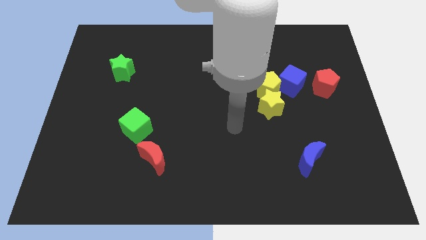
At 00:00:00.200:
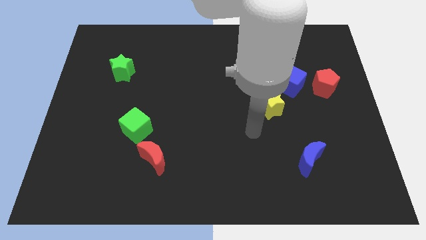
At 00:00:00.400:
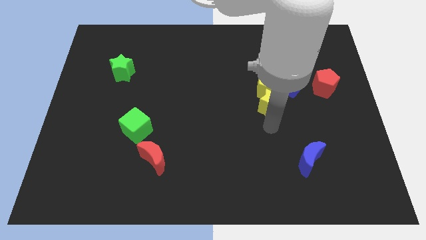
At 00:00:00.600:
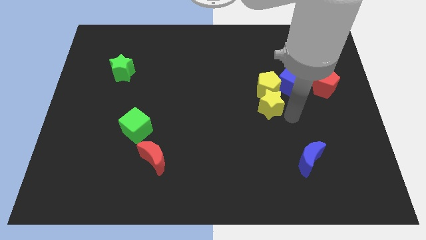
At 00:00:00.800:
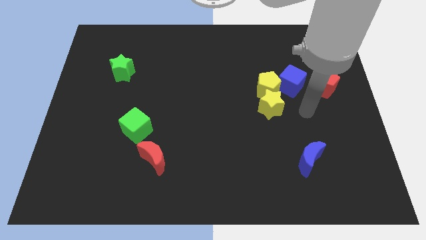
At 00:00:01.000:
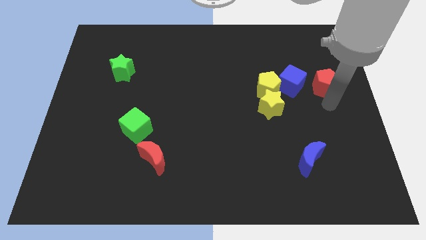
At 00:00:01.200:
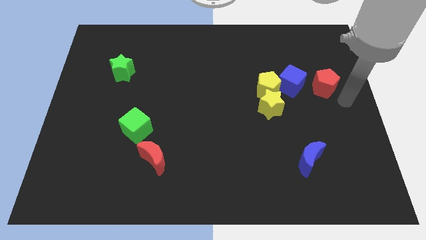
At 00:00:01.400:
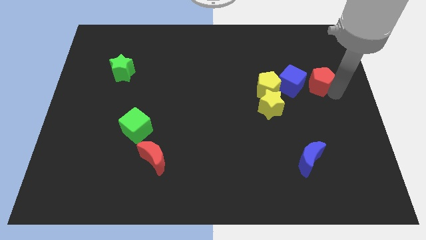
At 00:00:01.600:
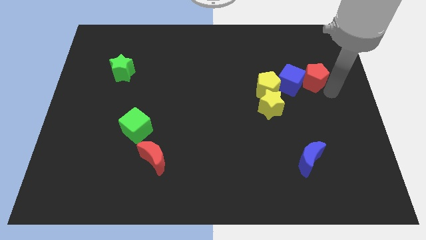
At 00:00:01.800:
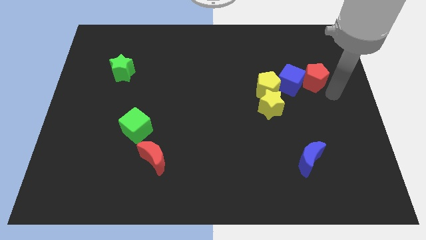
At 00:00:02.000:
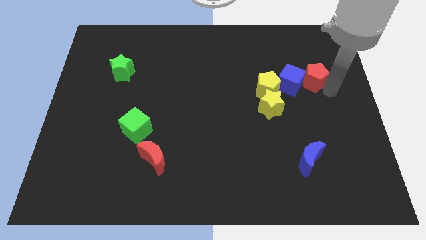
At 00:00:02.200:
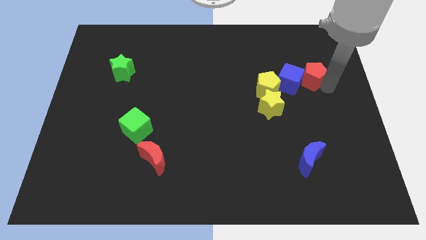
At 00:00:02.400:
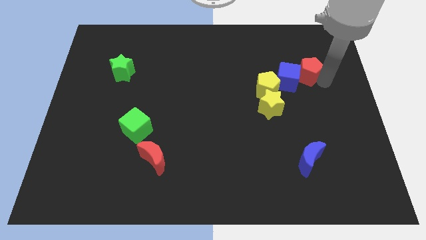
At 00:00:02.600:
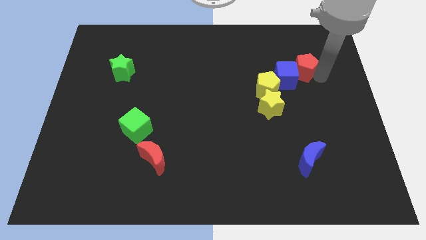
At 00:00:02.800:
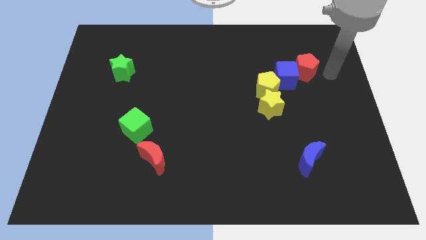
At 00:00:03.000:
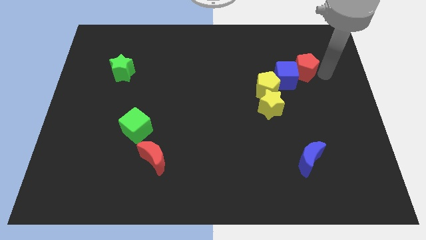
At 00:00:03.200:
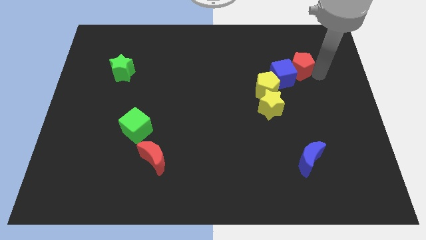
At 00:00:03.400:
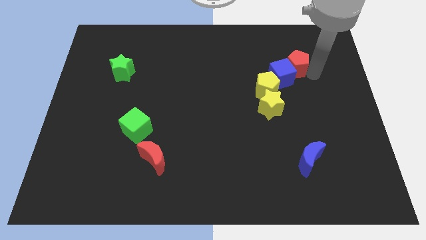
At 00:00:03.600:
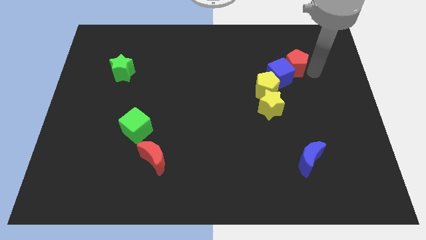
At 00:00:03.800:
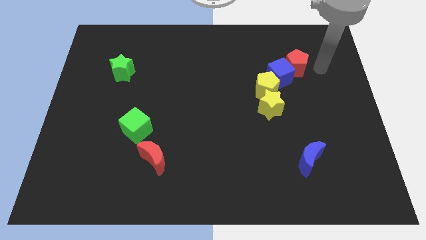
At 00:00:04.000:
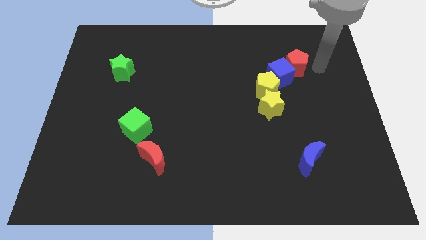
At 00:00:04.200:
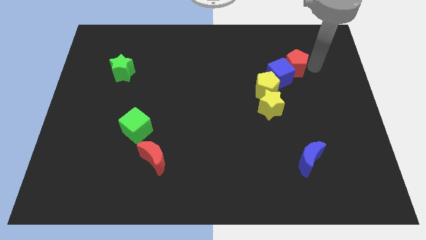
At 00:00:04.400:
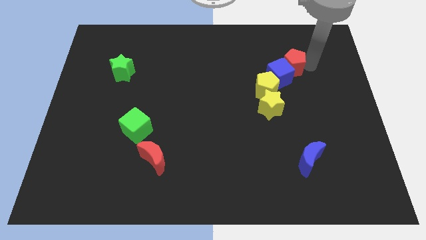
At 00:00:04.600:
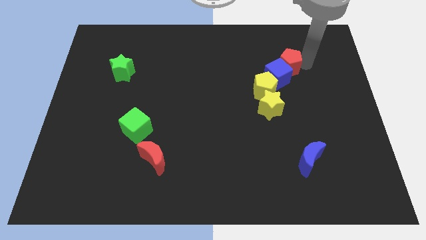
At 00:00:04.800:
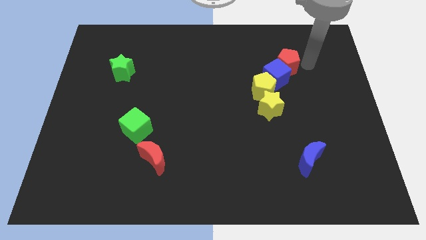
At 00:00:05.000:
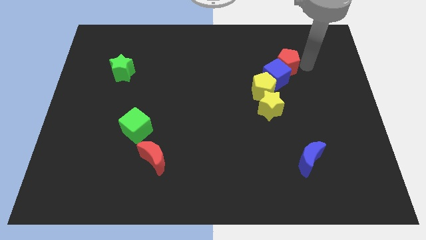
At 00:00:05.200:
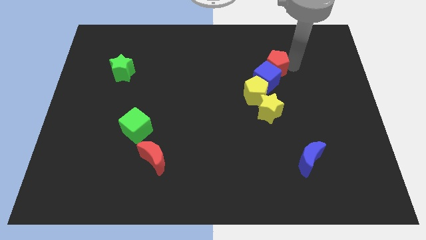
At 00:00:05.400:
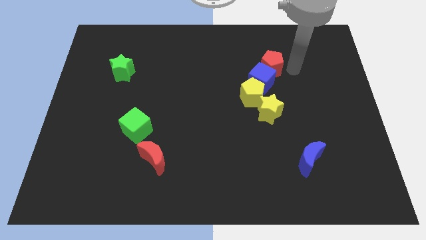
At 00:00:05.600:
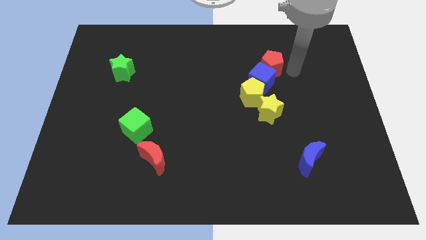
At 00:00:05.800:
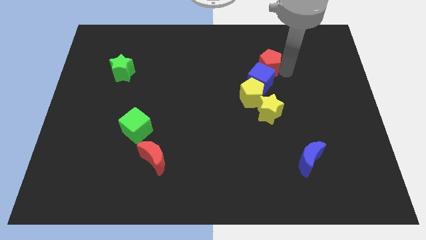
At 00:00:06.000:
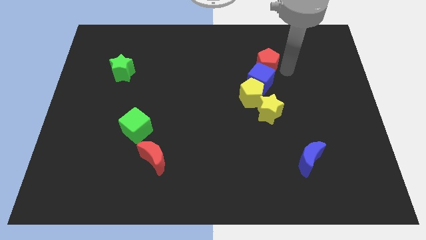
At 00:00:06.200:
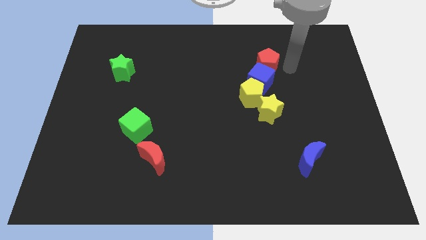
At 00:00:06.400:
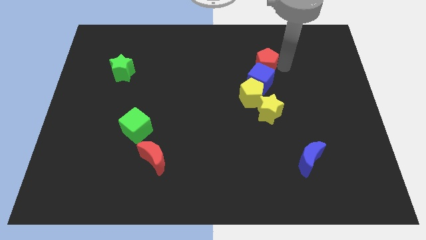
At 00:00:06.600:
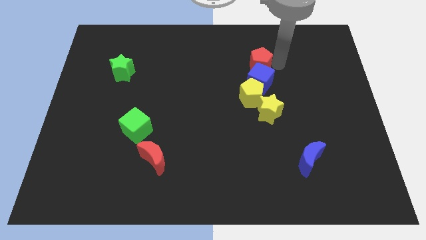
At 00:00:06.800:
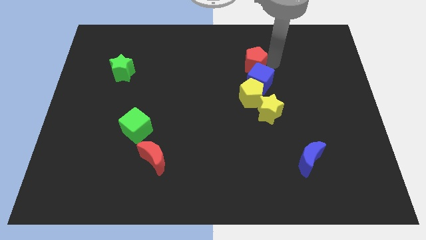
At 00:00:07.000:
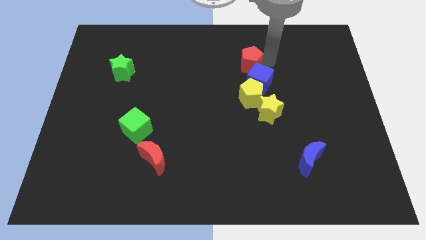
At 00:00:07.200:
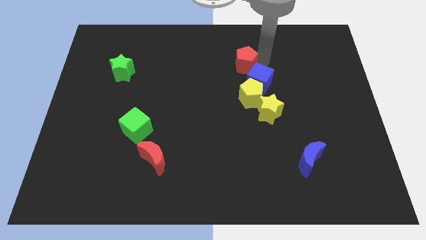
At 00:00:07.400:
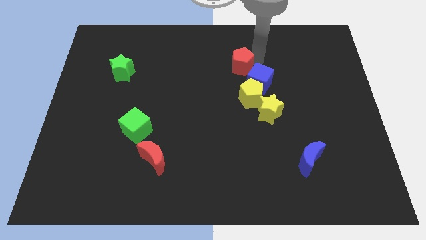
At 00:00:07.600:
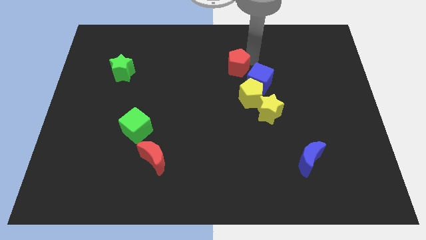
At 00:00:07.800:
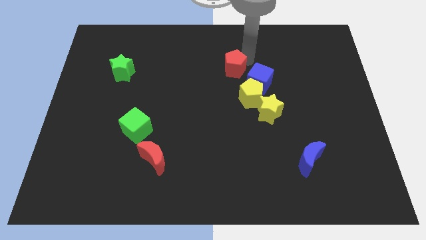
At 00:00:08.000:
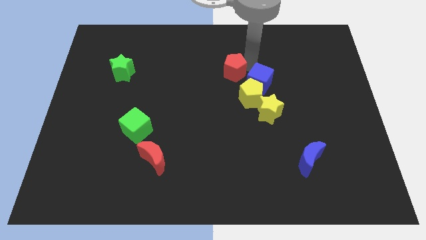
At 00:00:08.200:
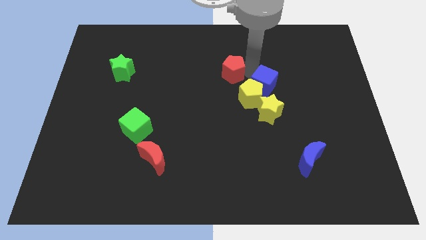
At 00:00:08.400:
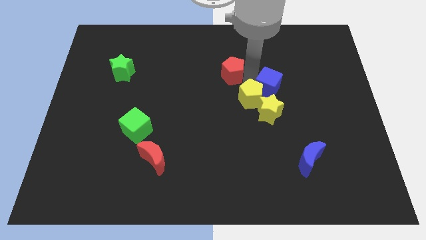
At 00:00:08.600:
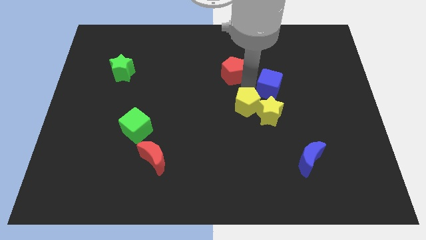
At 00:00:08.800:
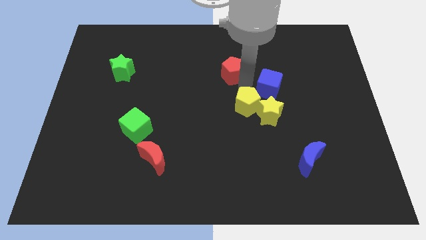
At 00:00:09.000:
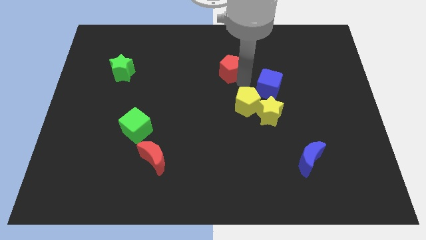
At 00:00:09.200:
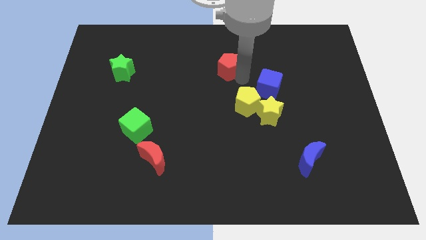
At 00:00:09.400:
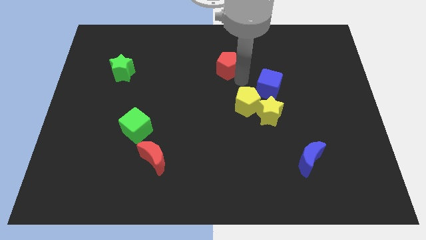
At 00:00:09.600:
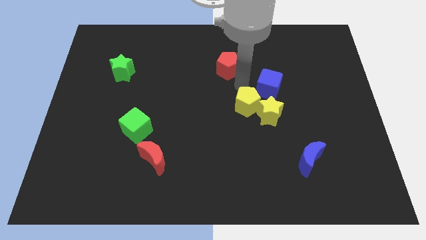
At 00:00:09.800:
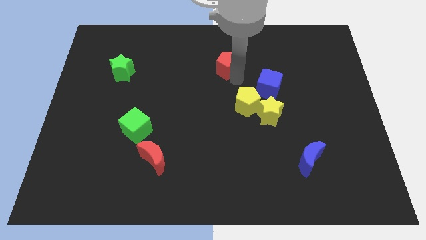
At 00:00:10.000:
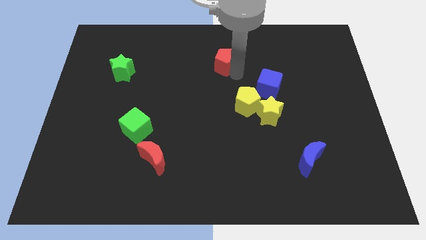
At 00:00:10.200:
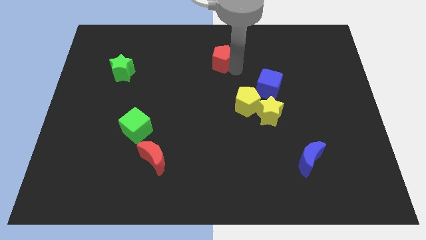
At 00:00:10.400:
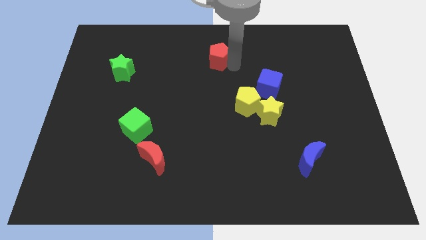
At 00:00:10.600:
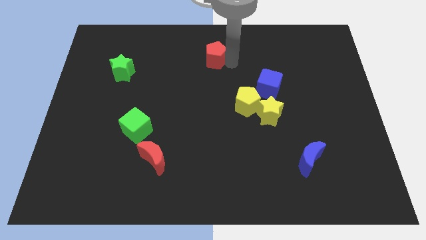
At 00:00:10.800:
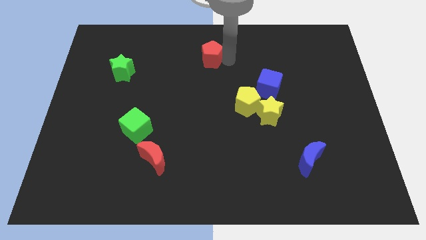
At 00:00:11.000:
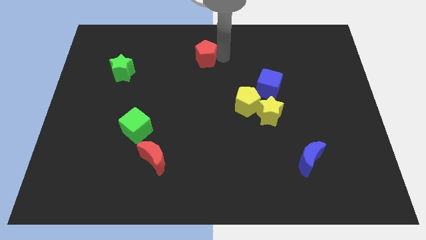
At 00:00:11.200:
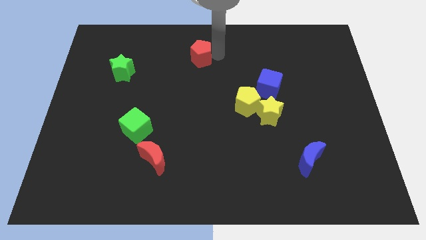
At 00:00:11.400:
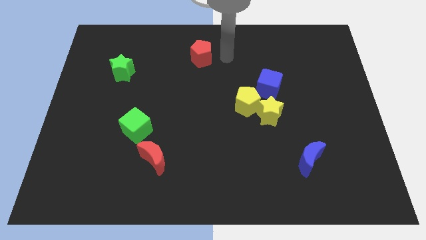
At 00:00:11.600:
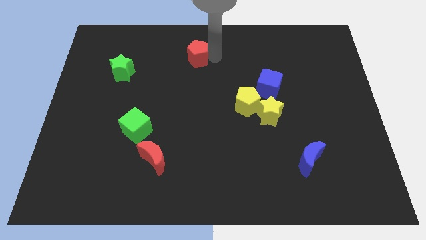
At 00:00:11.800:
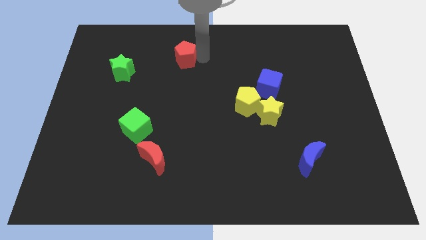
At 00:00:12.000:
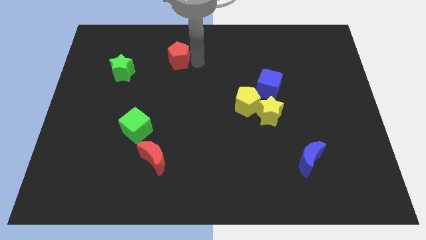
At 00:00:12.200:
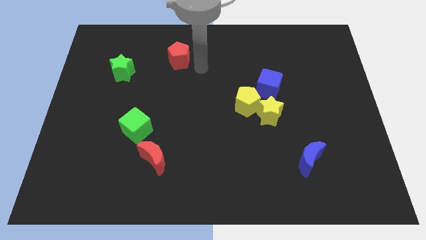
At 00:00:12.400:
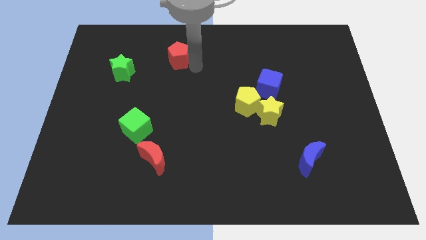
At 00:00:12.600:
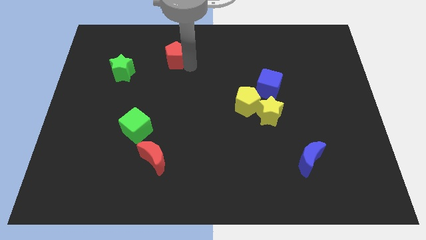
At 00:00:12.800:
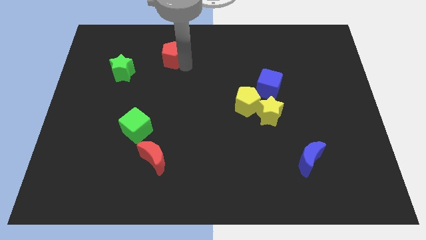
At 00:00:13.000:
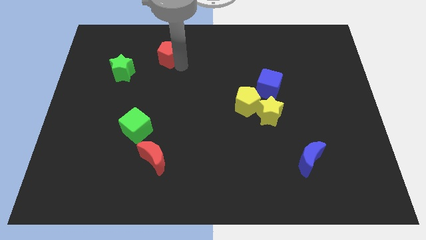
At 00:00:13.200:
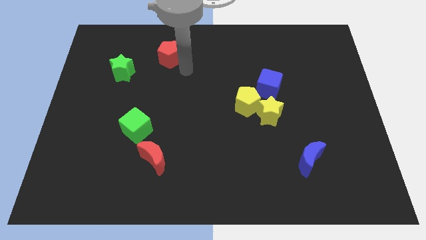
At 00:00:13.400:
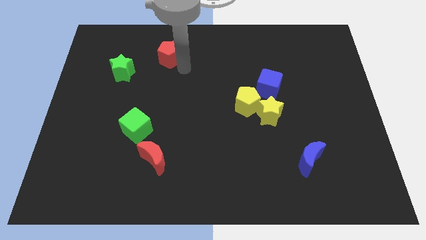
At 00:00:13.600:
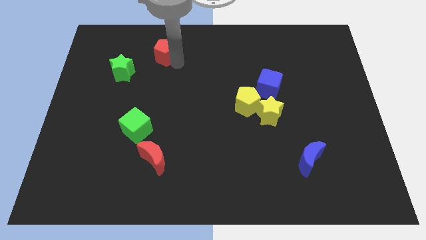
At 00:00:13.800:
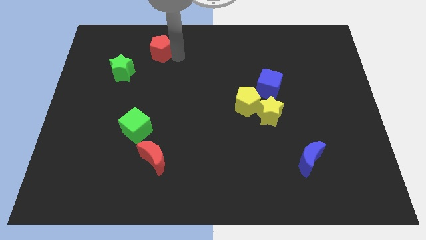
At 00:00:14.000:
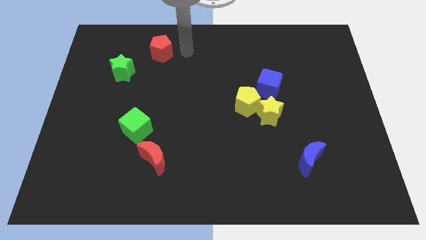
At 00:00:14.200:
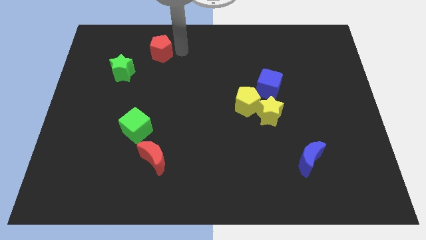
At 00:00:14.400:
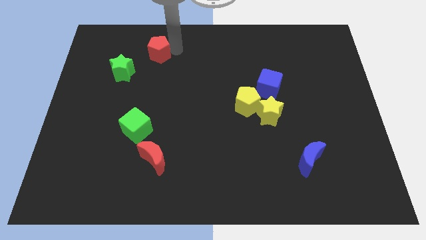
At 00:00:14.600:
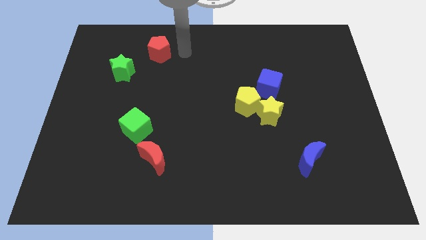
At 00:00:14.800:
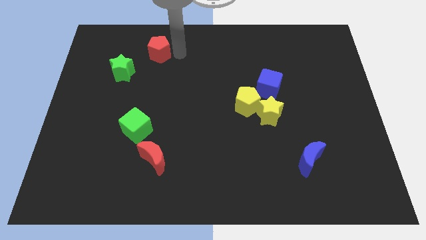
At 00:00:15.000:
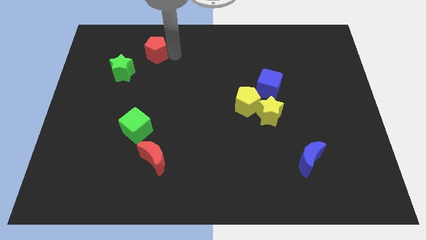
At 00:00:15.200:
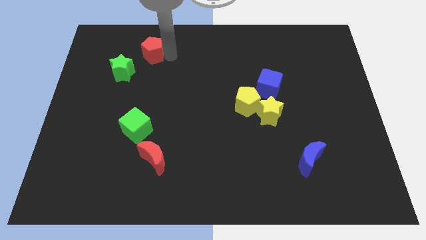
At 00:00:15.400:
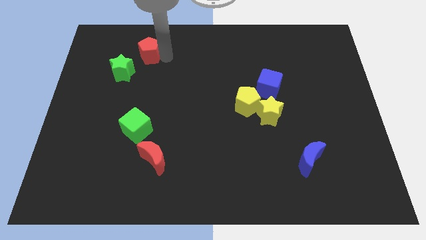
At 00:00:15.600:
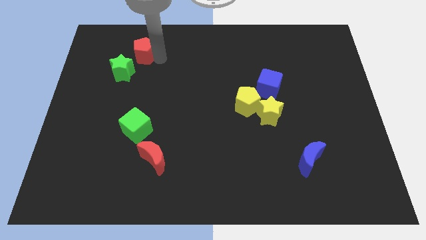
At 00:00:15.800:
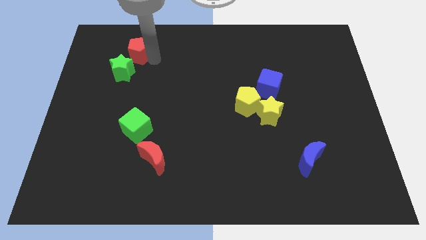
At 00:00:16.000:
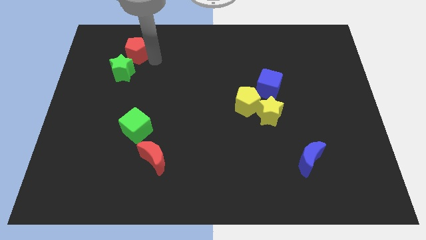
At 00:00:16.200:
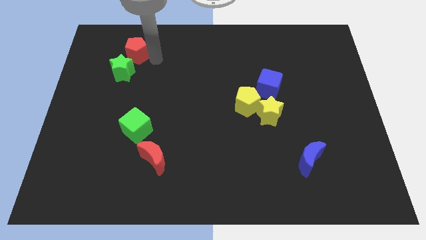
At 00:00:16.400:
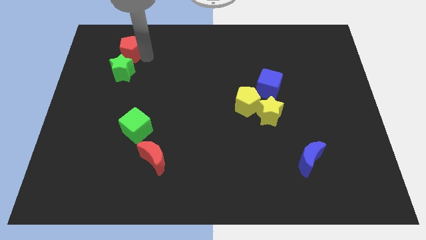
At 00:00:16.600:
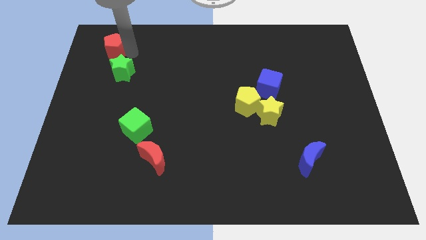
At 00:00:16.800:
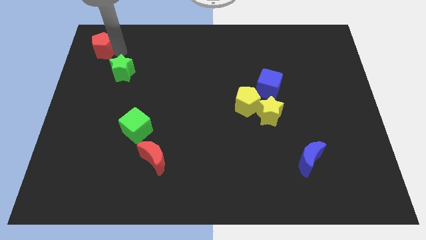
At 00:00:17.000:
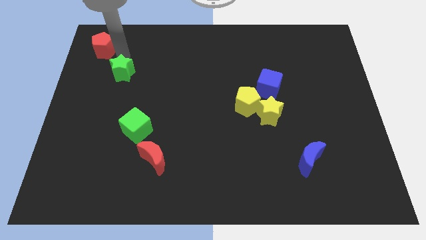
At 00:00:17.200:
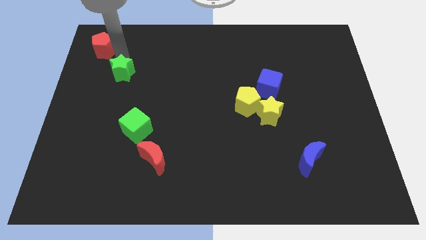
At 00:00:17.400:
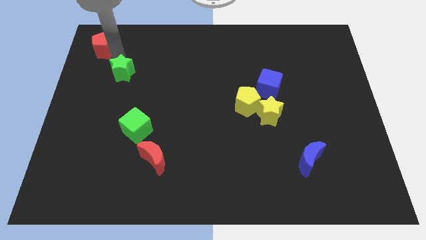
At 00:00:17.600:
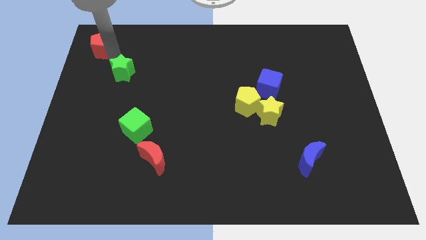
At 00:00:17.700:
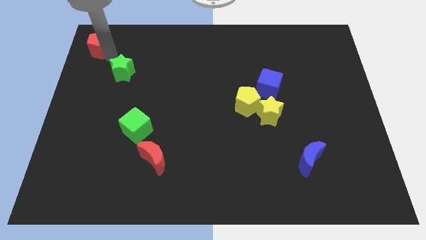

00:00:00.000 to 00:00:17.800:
push the red pentagon to the upper left corner
